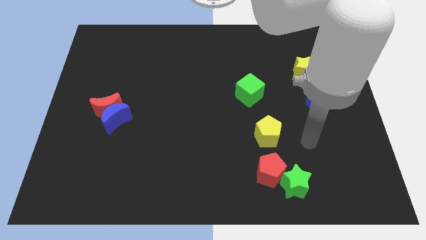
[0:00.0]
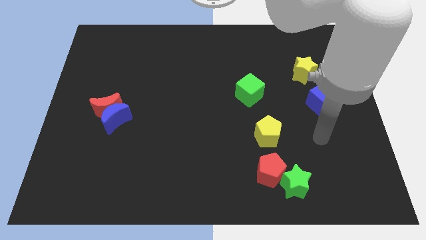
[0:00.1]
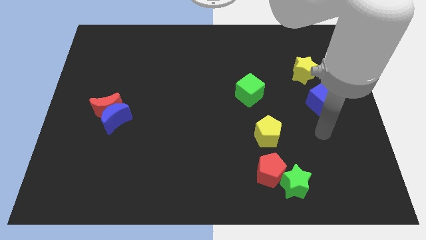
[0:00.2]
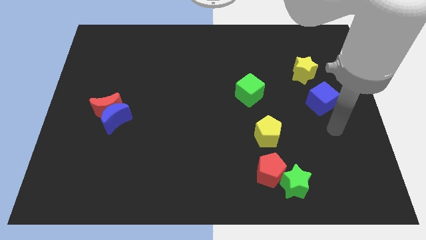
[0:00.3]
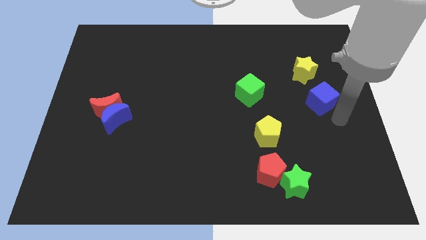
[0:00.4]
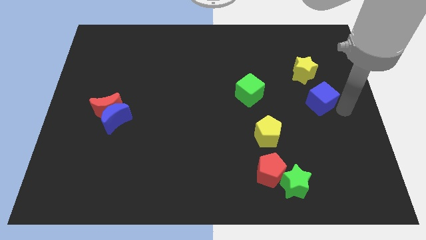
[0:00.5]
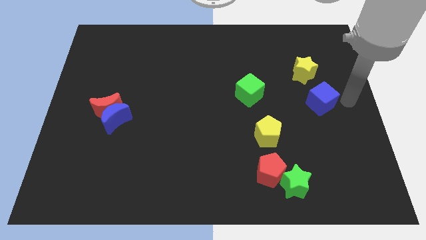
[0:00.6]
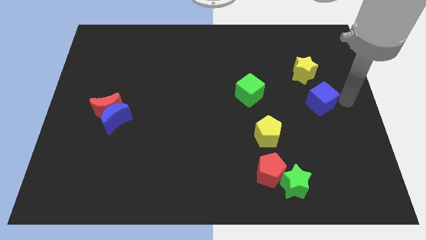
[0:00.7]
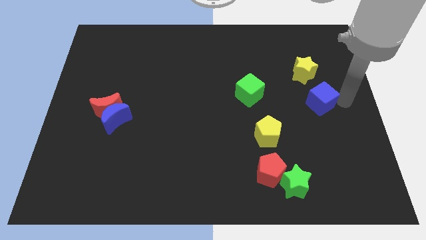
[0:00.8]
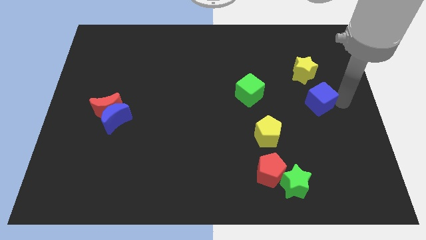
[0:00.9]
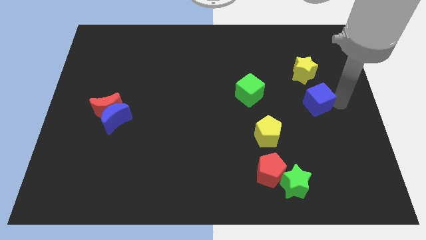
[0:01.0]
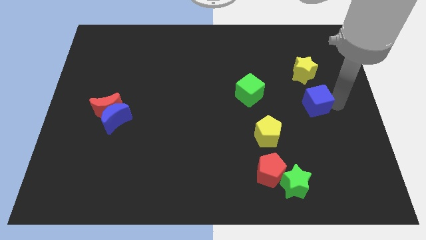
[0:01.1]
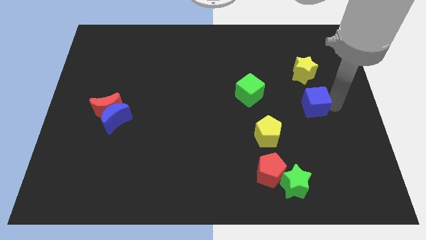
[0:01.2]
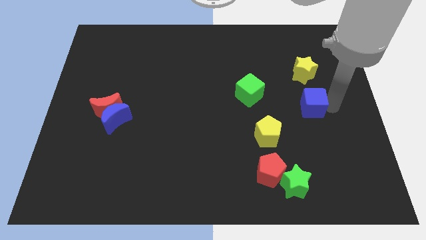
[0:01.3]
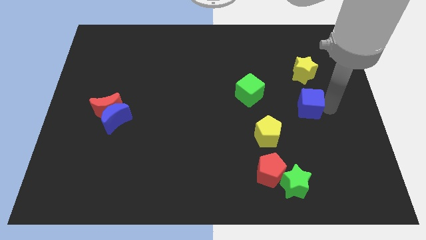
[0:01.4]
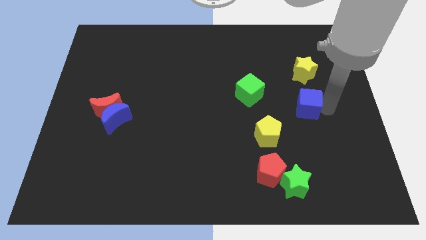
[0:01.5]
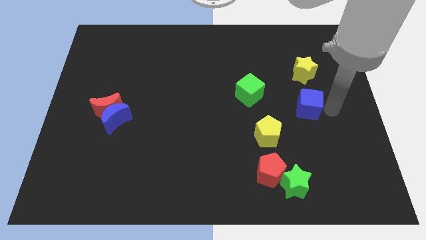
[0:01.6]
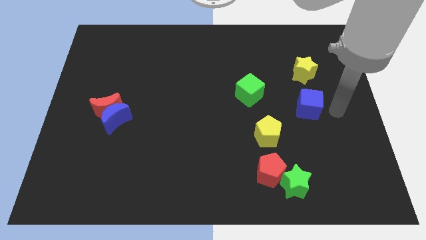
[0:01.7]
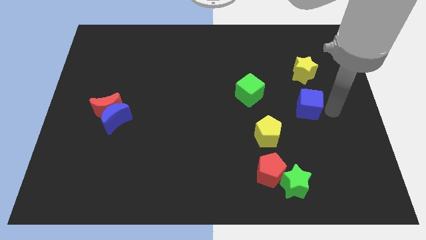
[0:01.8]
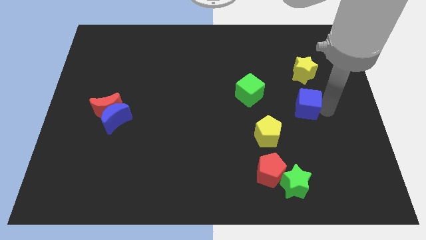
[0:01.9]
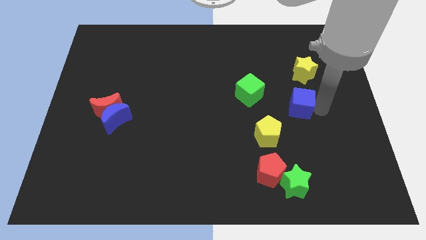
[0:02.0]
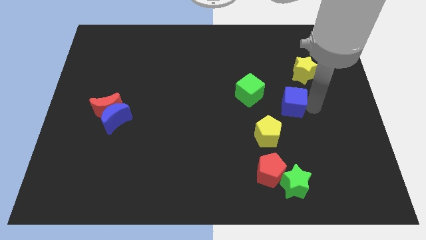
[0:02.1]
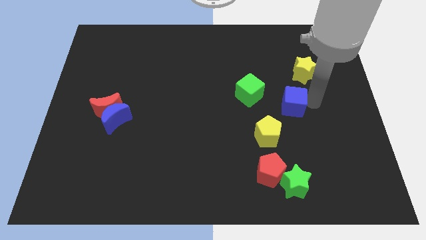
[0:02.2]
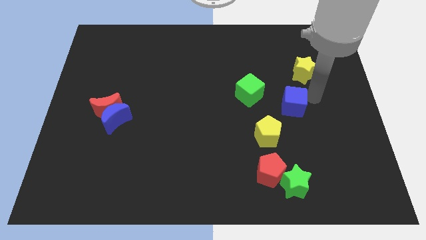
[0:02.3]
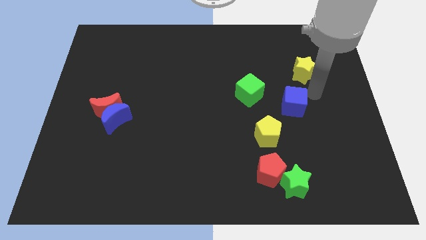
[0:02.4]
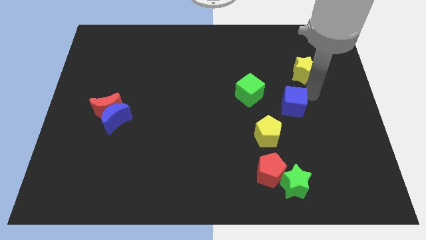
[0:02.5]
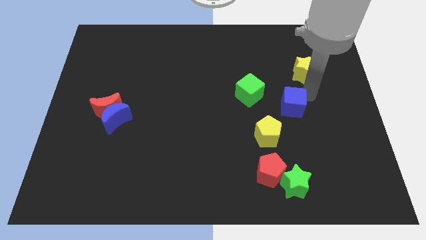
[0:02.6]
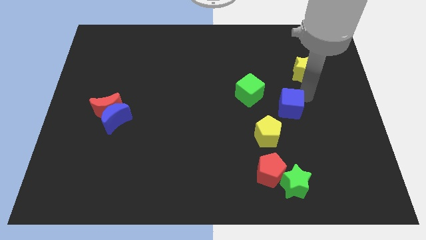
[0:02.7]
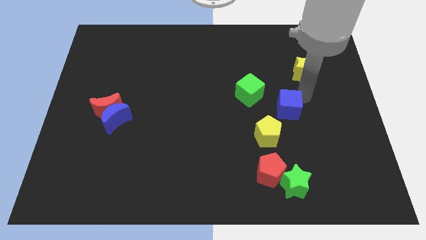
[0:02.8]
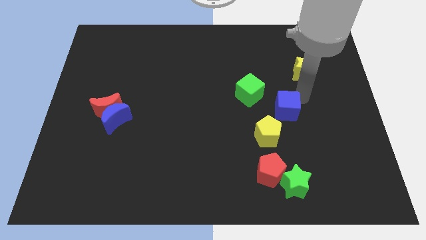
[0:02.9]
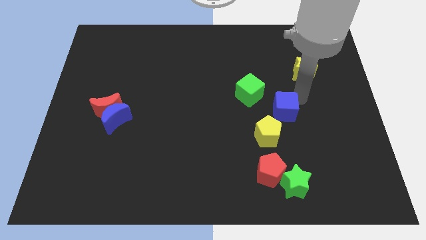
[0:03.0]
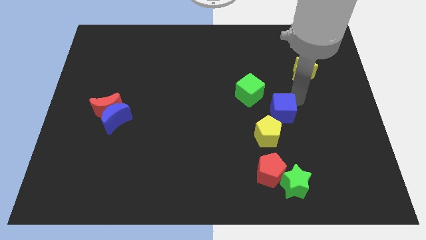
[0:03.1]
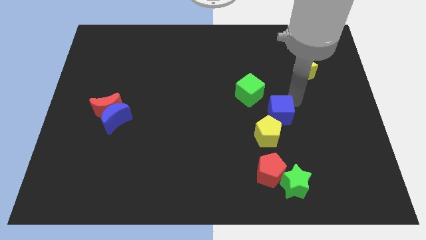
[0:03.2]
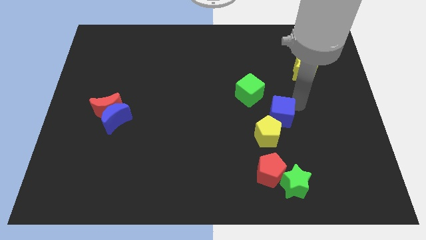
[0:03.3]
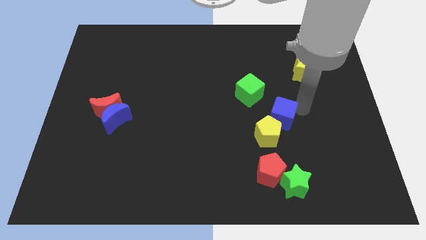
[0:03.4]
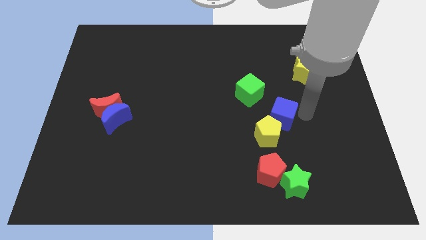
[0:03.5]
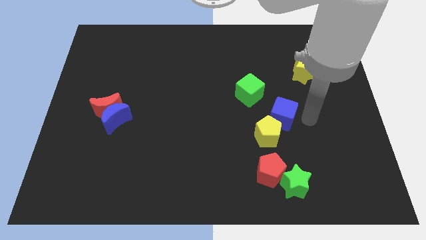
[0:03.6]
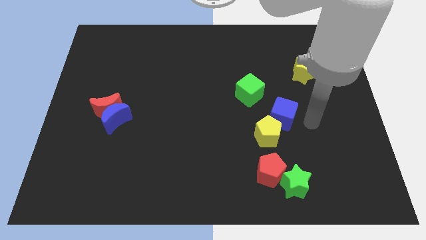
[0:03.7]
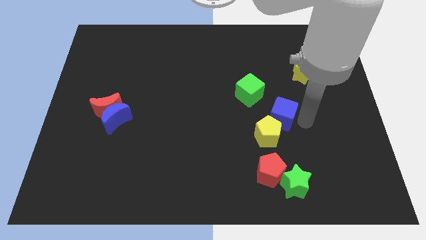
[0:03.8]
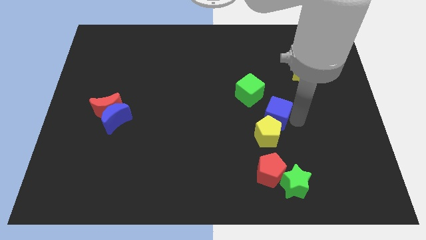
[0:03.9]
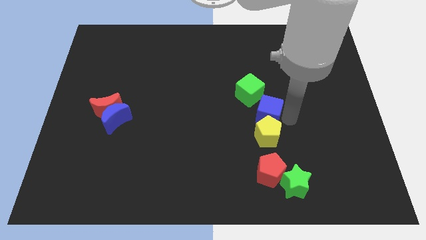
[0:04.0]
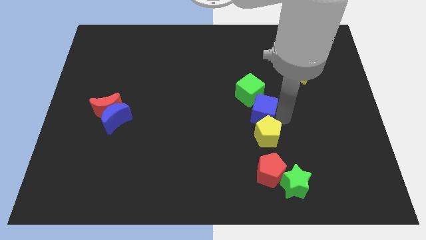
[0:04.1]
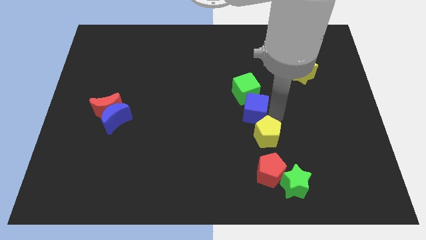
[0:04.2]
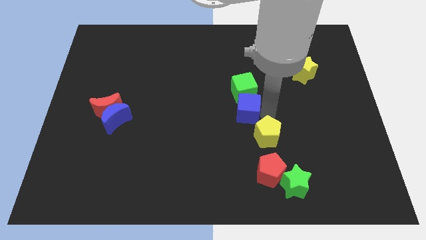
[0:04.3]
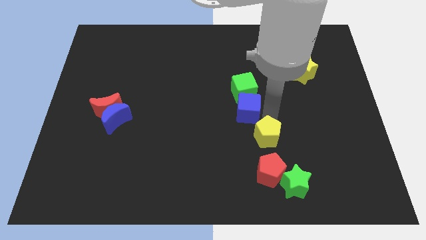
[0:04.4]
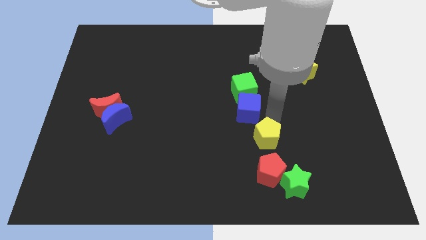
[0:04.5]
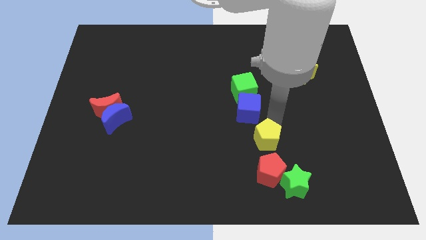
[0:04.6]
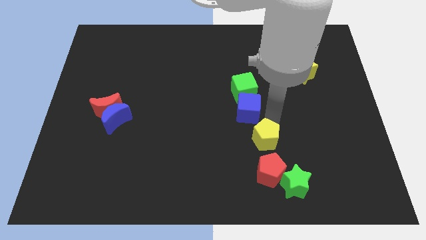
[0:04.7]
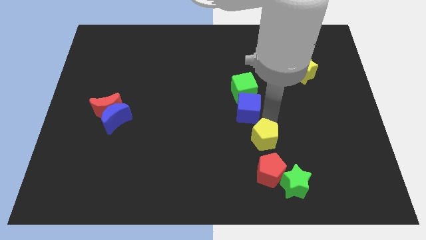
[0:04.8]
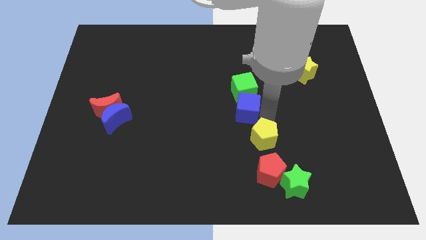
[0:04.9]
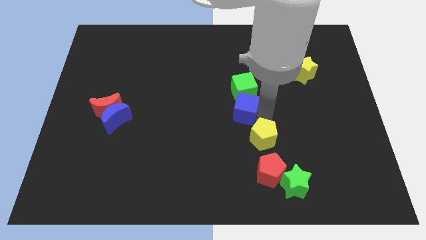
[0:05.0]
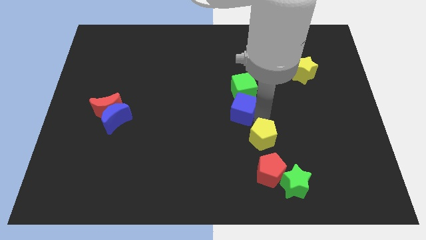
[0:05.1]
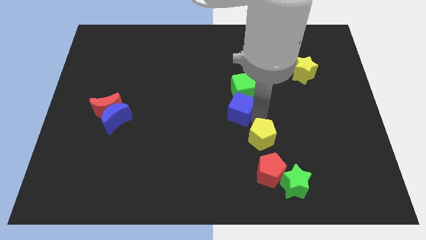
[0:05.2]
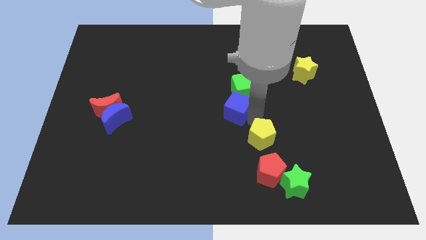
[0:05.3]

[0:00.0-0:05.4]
move the blue cube to the left

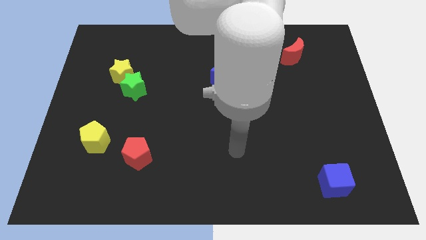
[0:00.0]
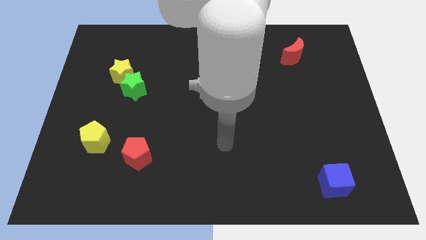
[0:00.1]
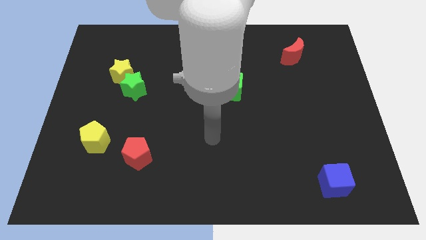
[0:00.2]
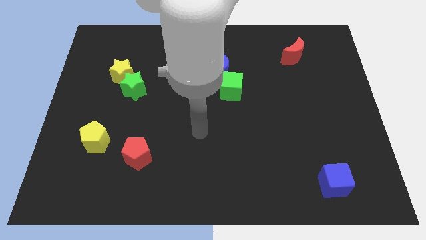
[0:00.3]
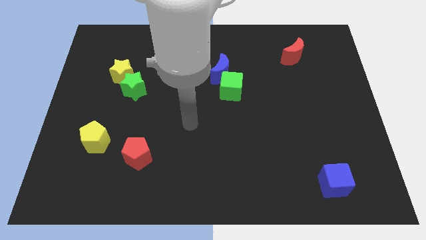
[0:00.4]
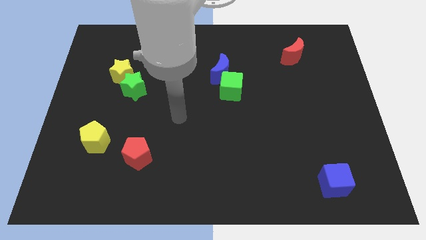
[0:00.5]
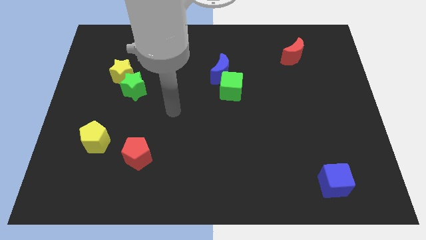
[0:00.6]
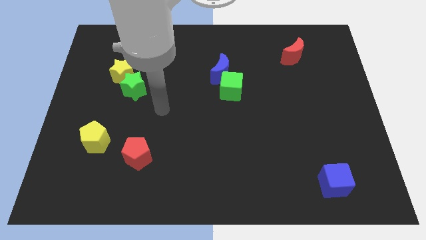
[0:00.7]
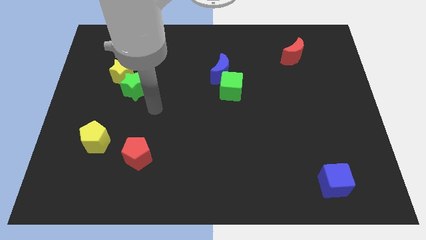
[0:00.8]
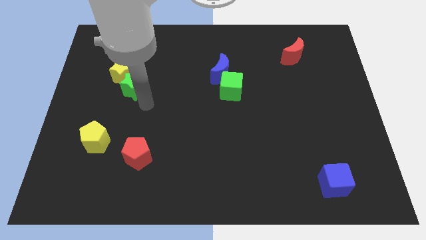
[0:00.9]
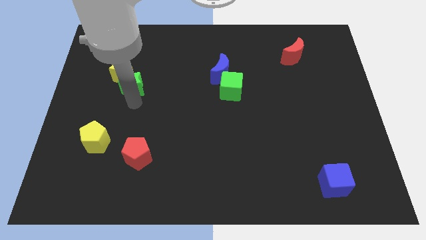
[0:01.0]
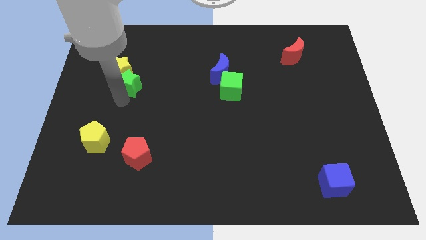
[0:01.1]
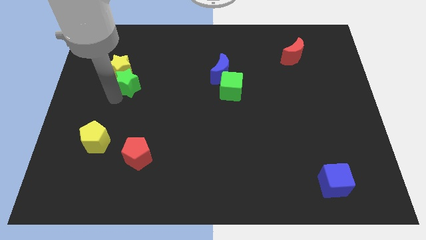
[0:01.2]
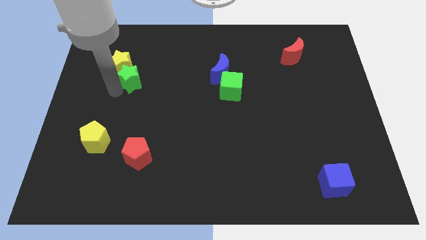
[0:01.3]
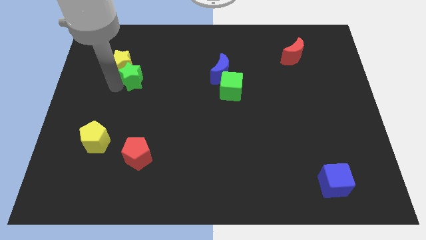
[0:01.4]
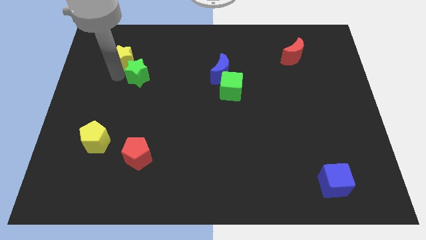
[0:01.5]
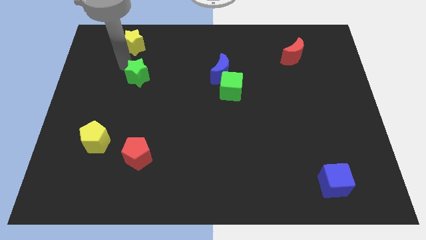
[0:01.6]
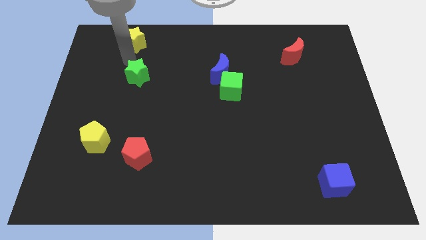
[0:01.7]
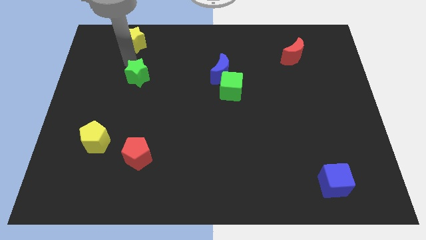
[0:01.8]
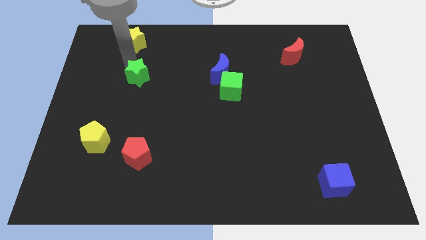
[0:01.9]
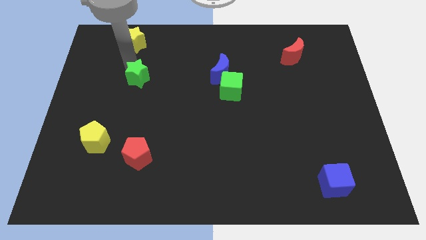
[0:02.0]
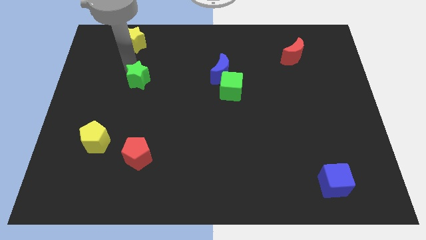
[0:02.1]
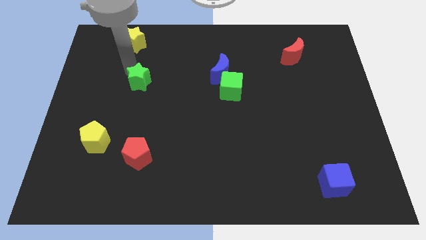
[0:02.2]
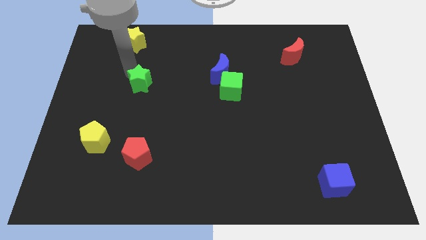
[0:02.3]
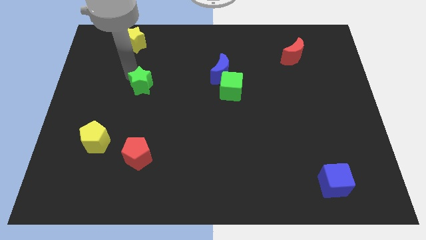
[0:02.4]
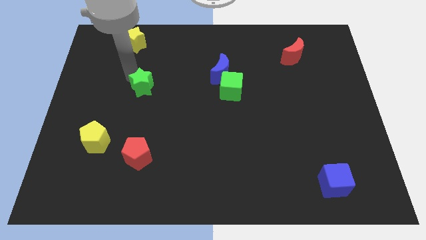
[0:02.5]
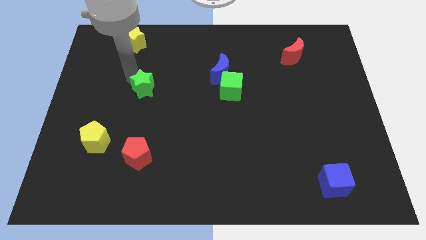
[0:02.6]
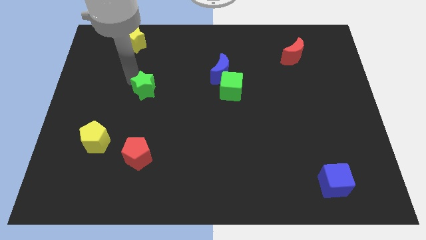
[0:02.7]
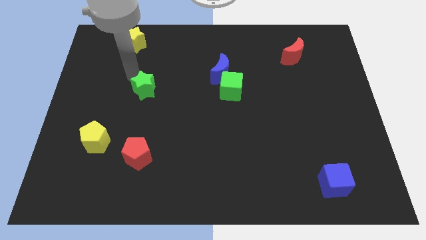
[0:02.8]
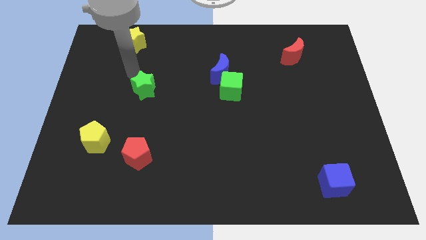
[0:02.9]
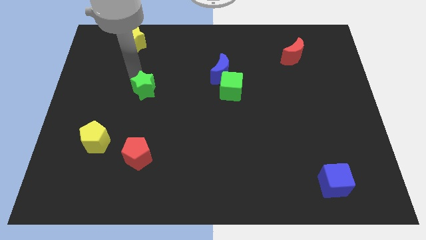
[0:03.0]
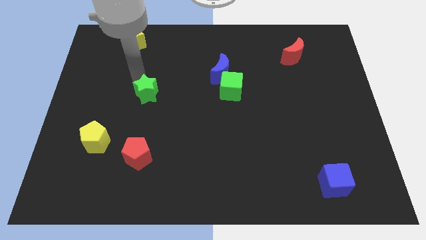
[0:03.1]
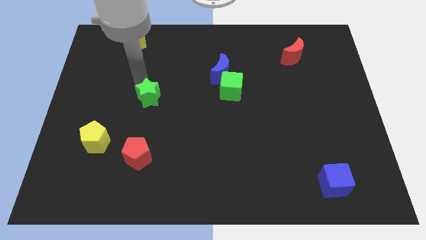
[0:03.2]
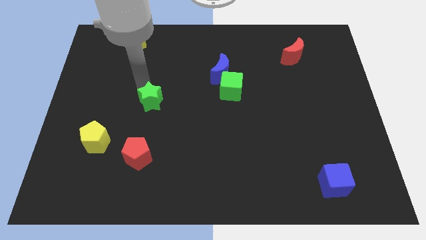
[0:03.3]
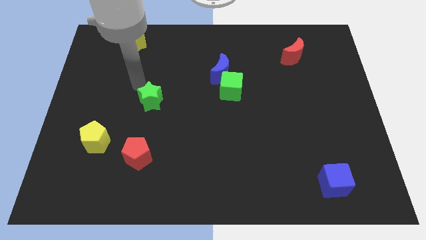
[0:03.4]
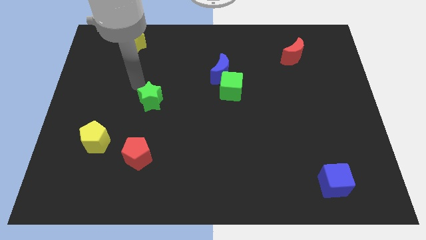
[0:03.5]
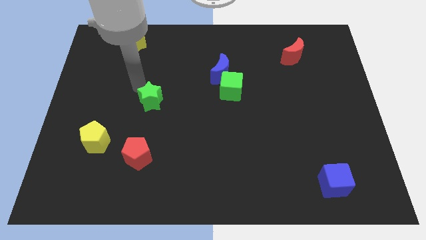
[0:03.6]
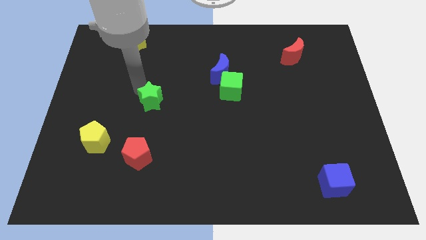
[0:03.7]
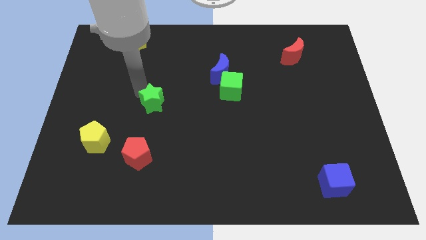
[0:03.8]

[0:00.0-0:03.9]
move the green star down and then to the right slightly
